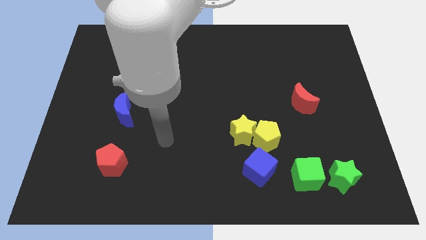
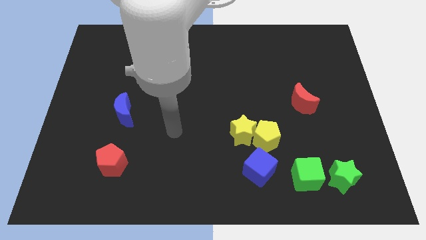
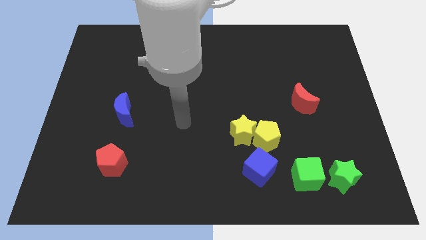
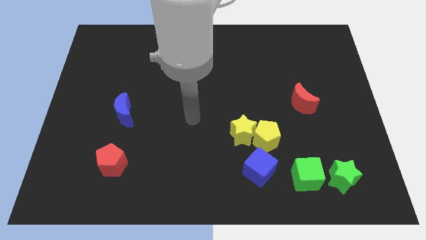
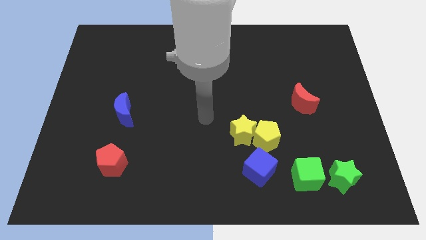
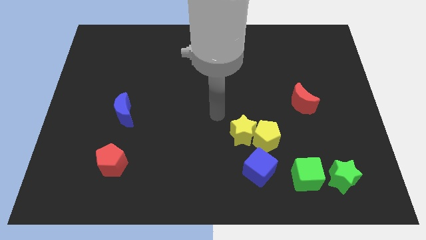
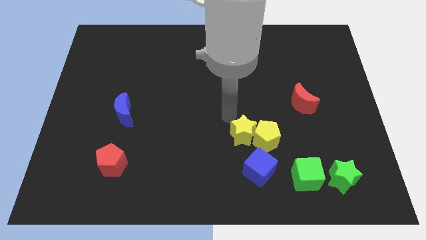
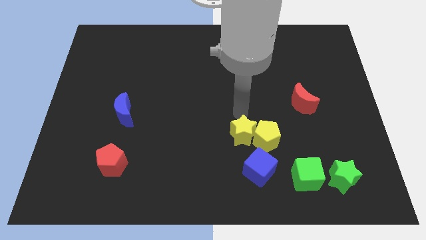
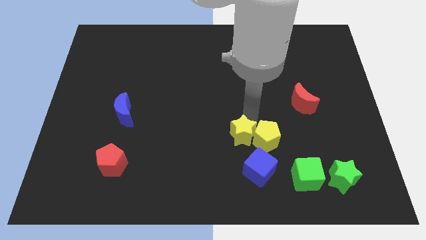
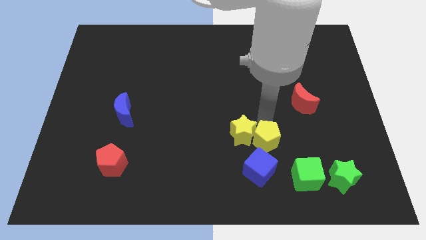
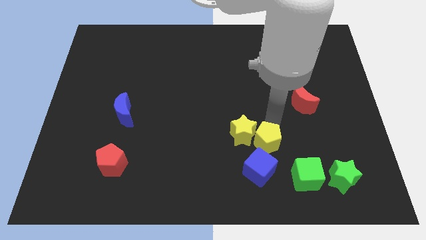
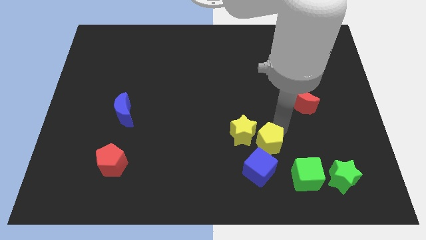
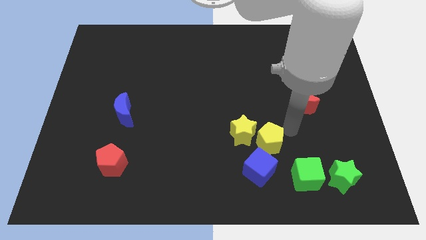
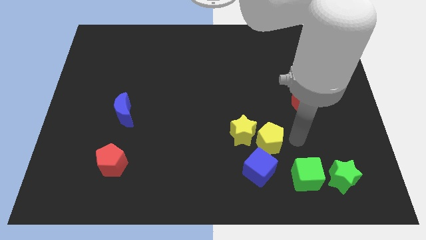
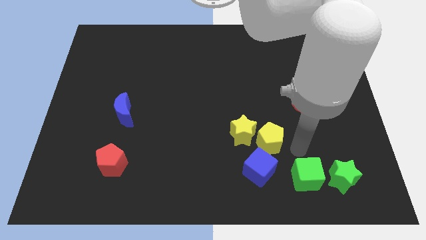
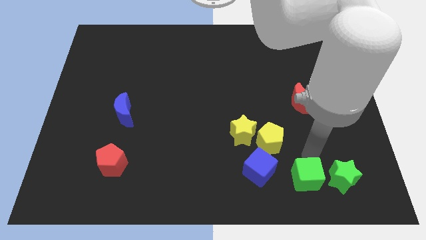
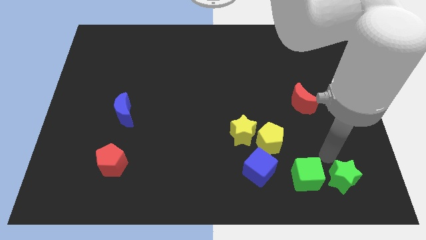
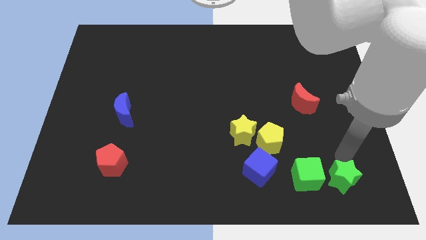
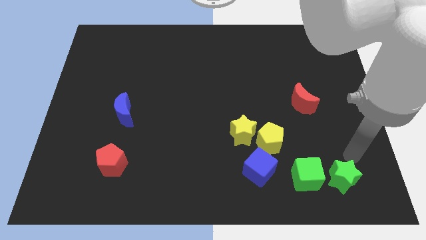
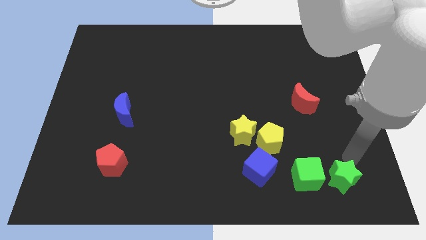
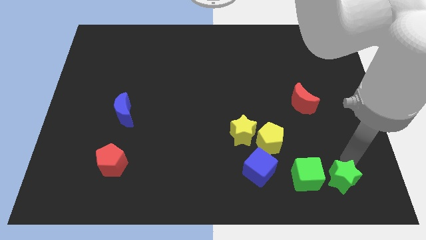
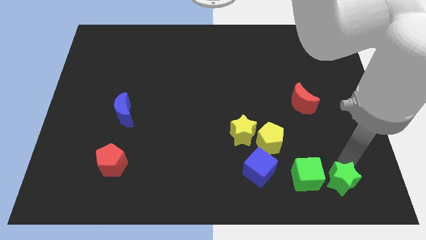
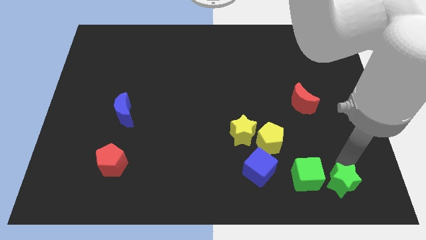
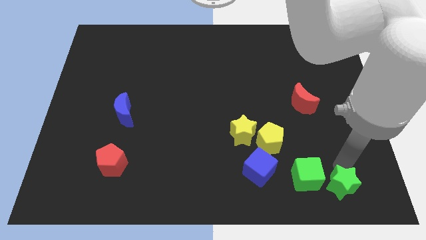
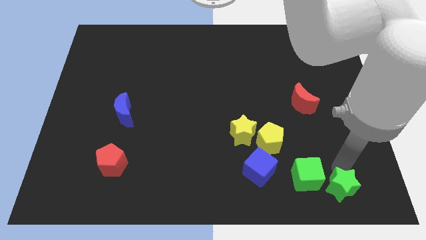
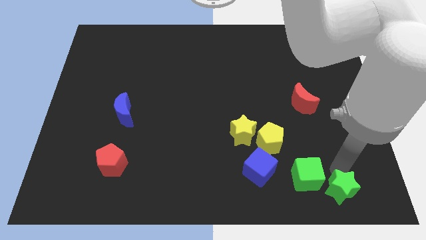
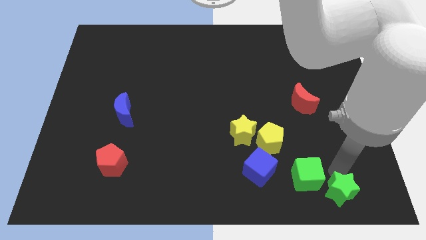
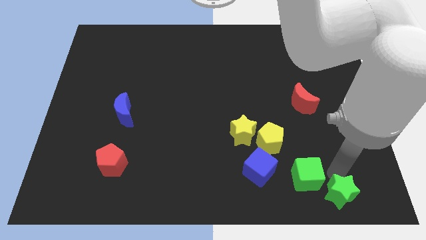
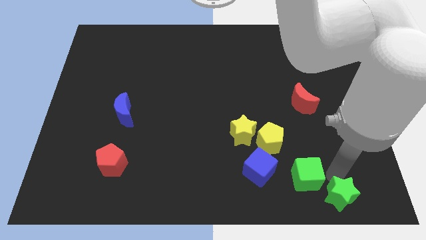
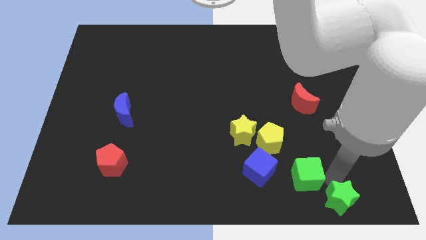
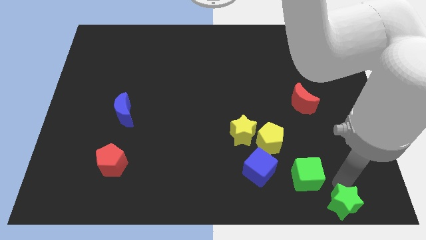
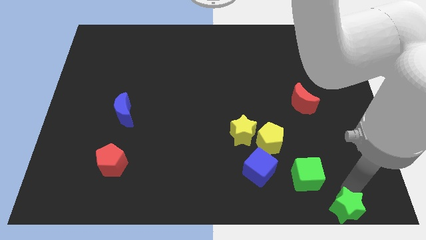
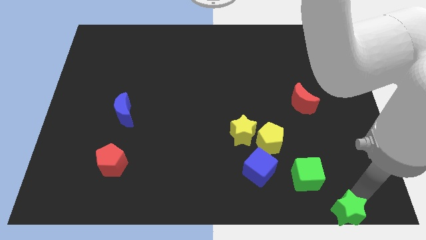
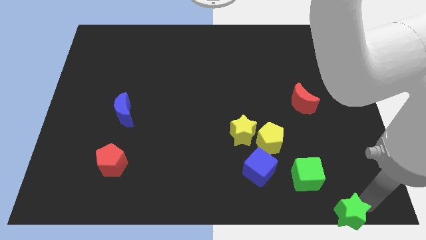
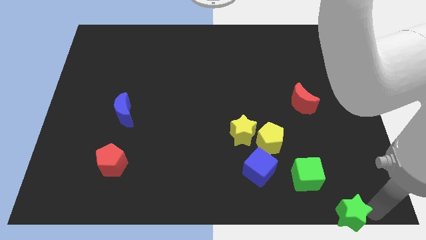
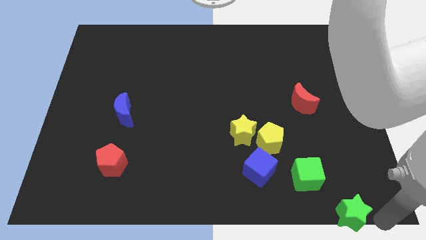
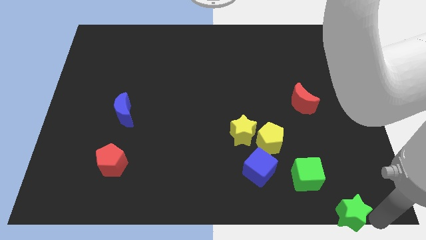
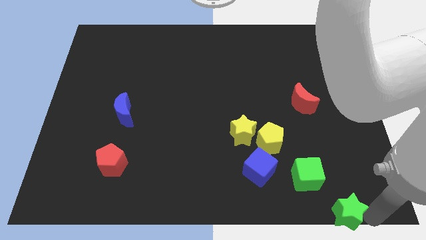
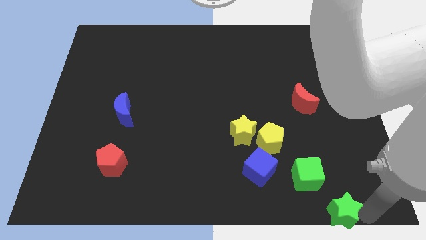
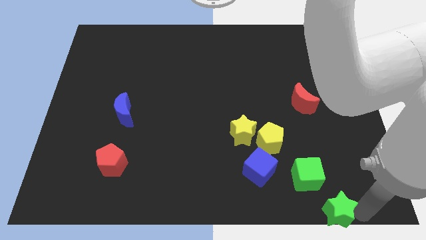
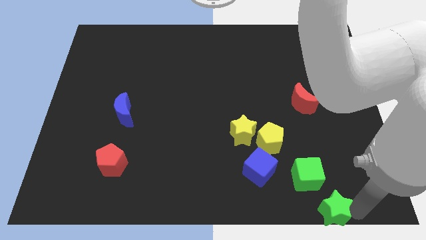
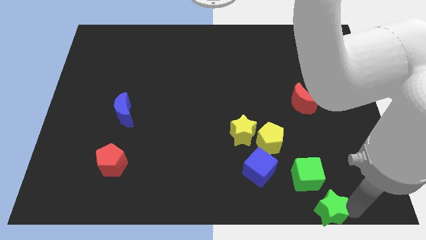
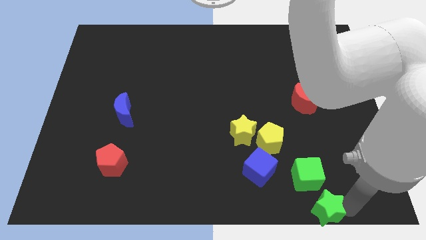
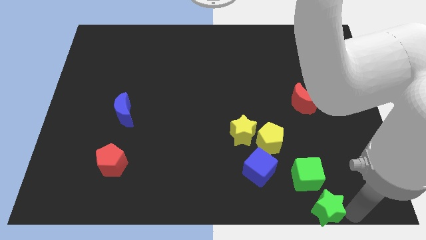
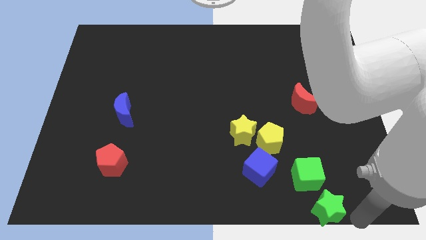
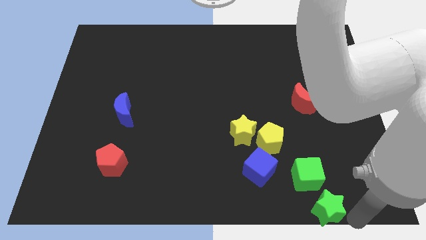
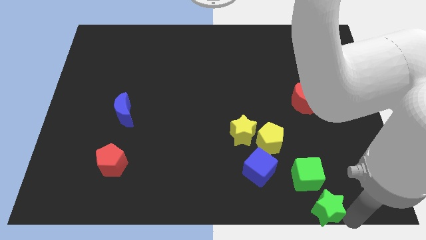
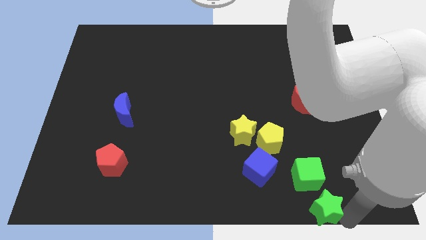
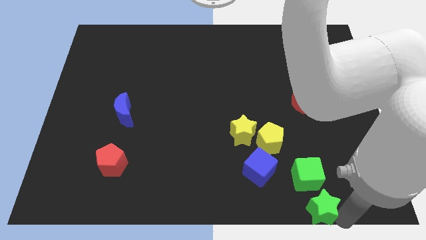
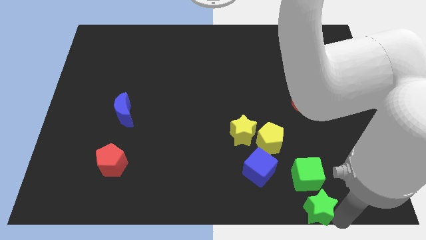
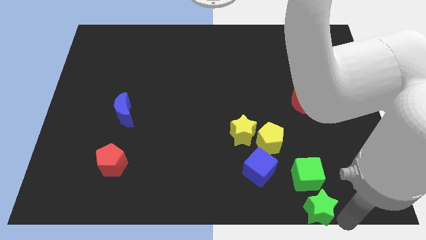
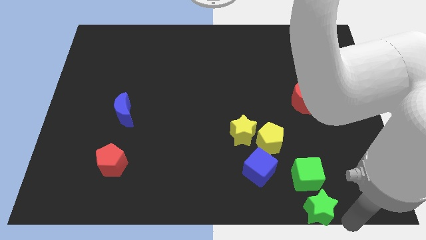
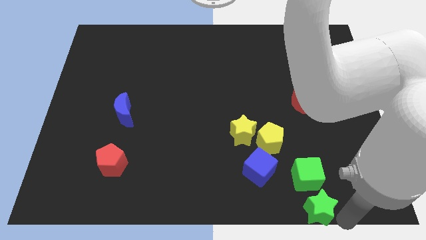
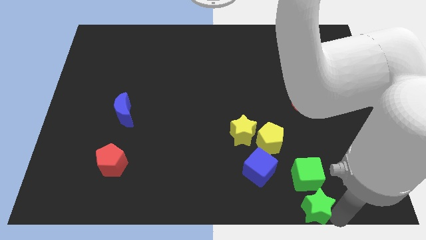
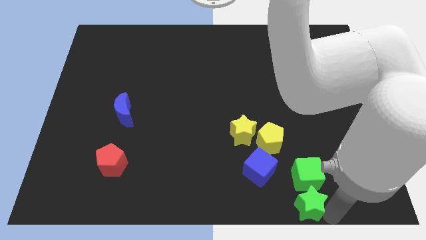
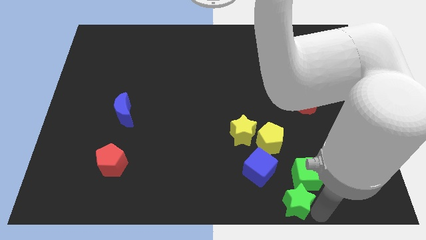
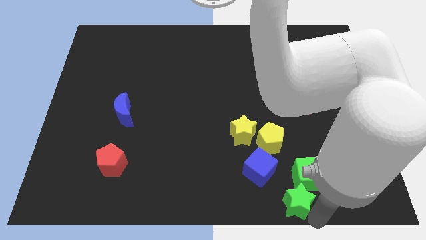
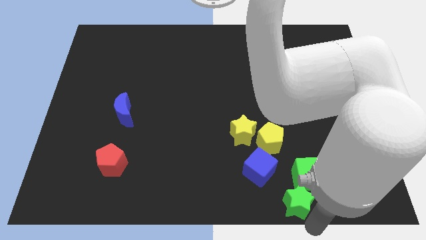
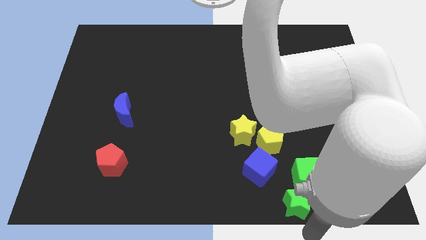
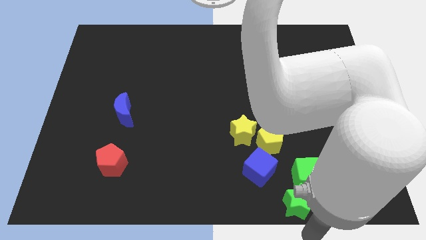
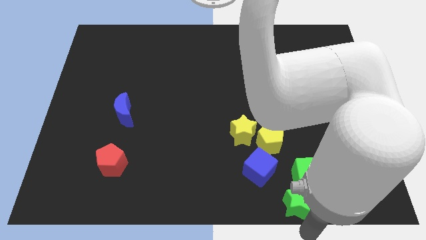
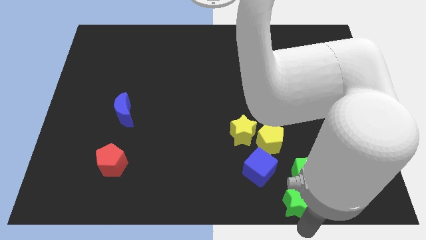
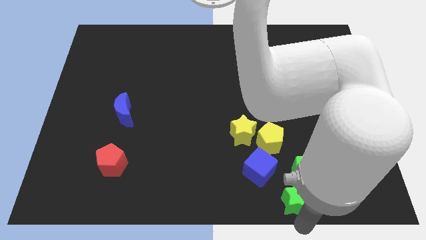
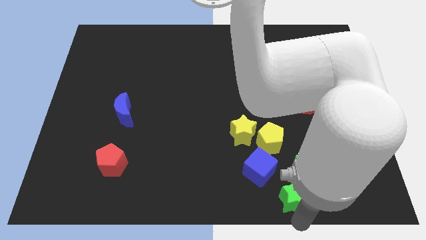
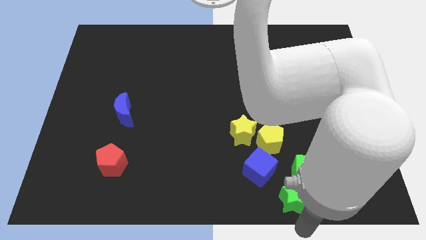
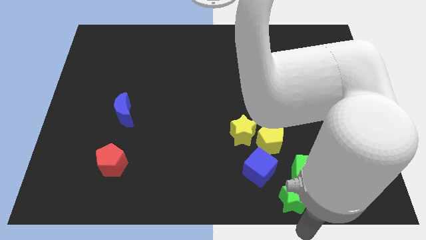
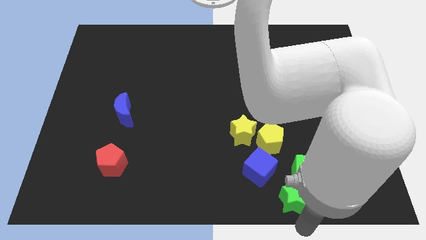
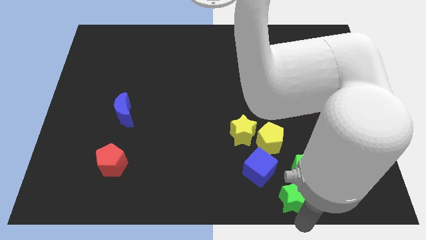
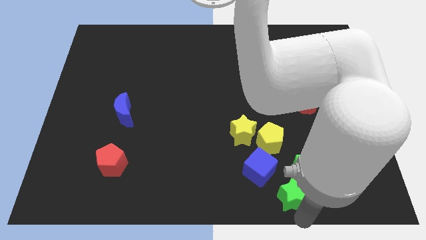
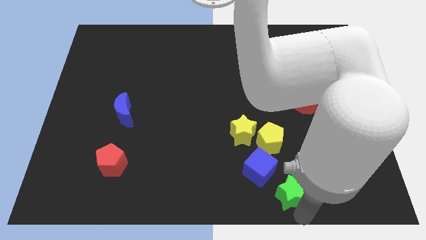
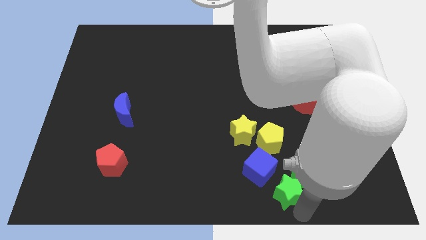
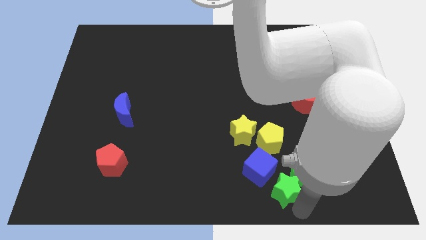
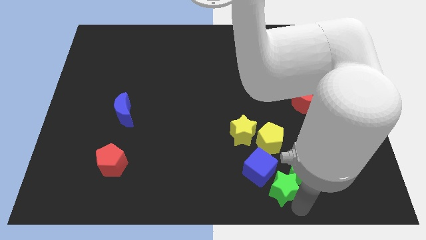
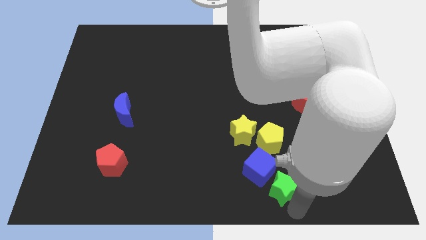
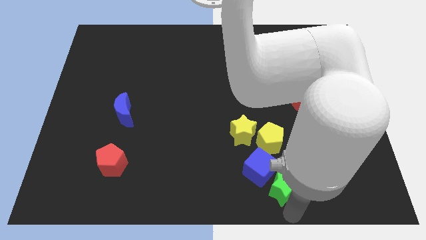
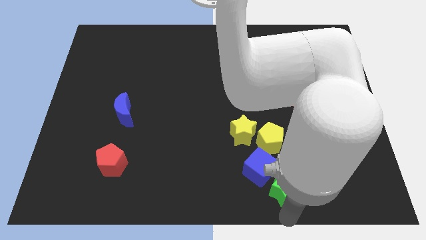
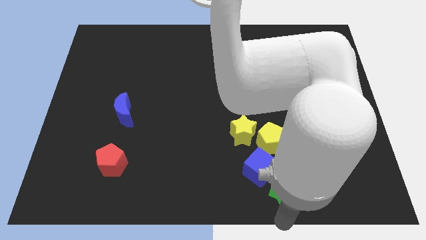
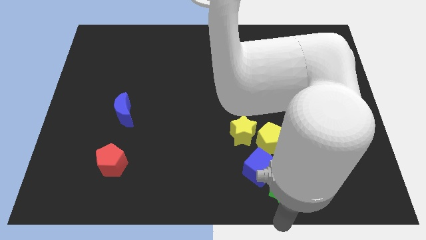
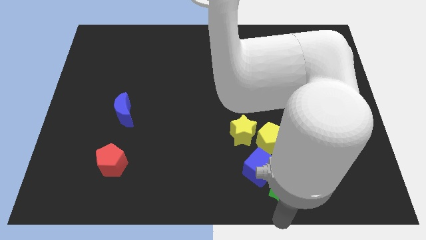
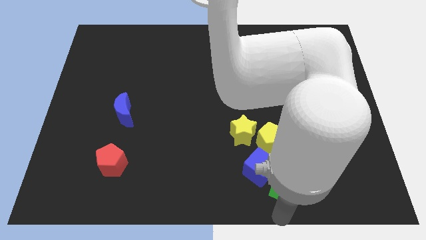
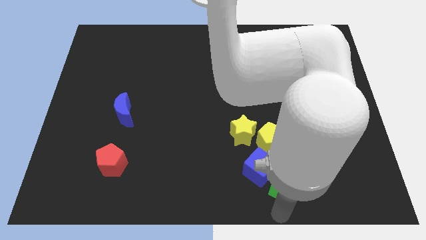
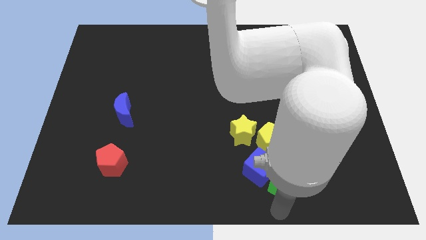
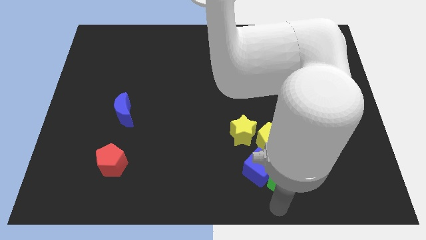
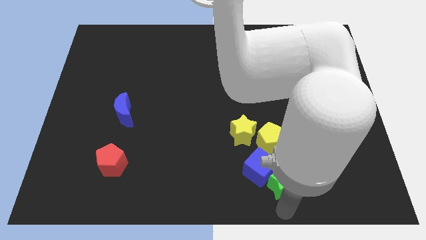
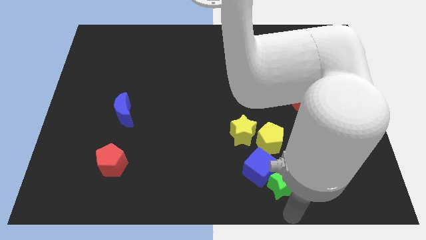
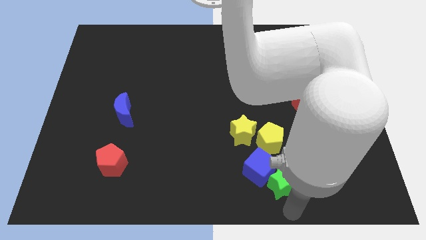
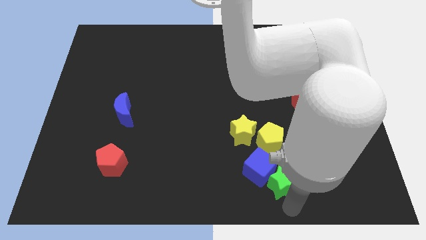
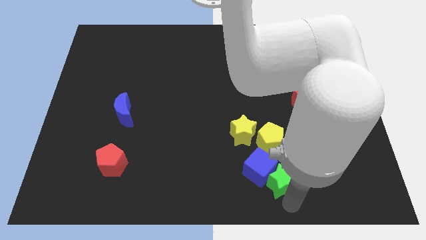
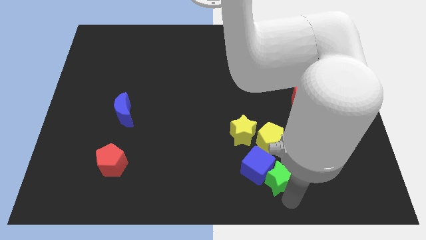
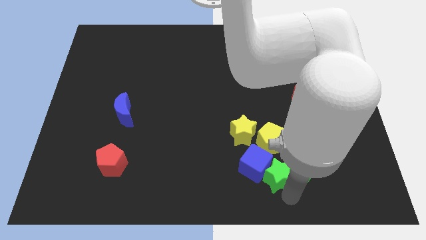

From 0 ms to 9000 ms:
move the green star to the bottom right side of the yellow star
